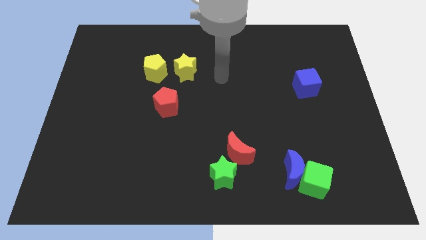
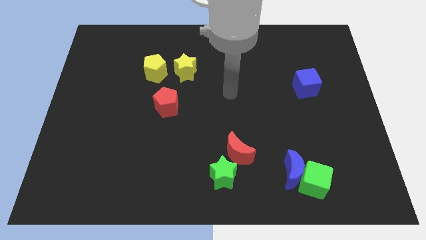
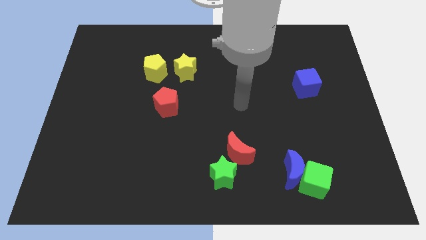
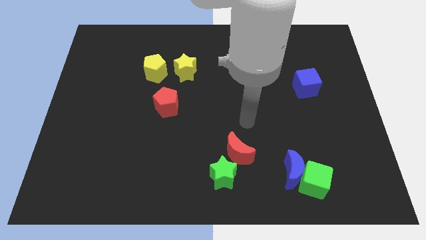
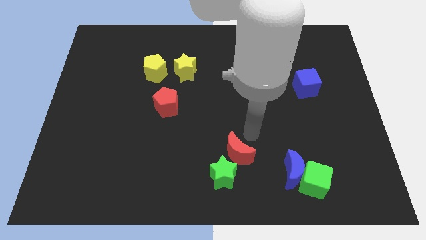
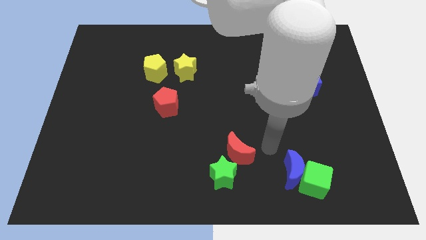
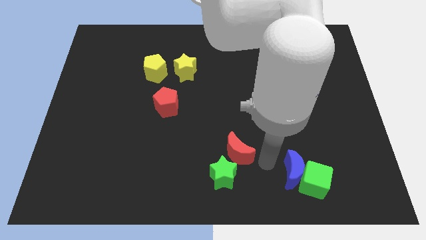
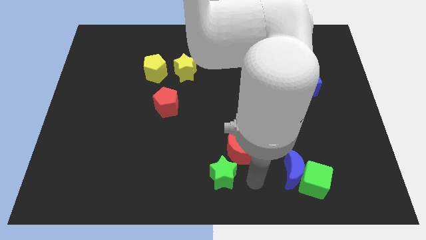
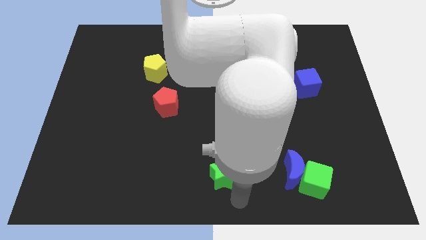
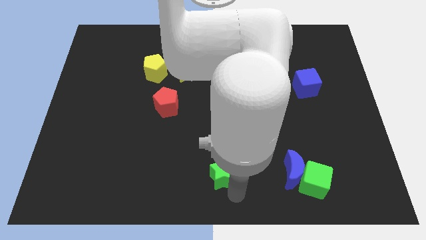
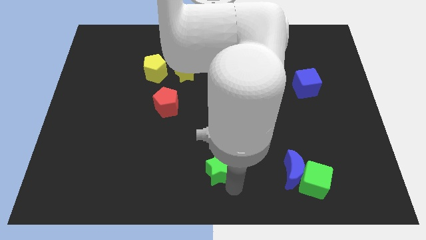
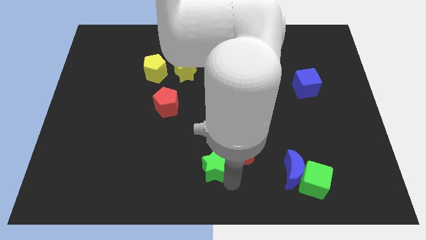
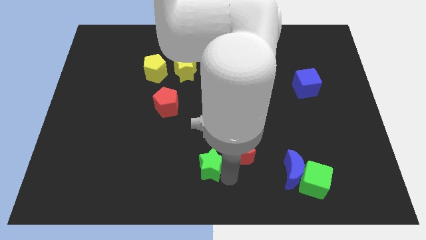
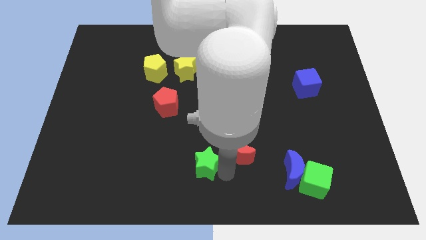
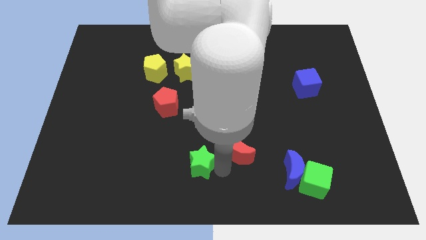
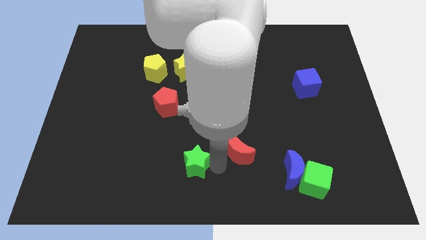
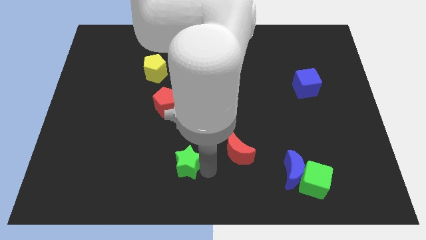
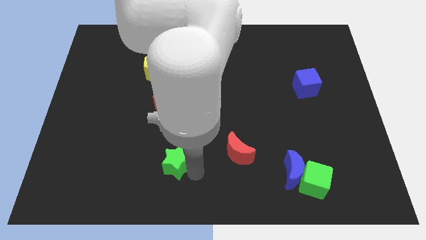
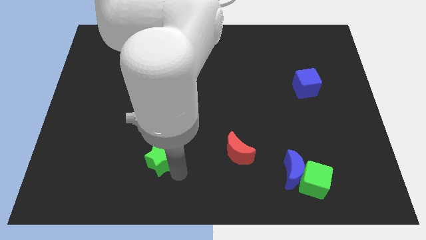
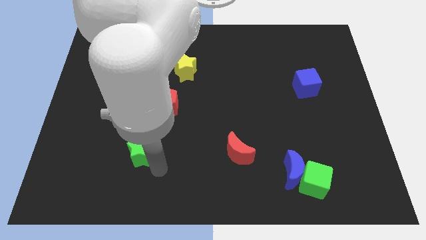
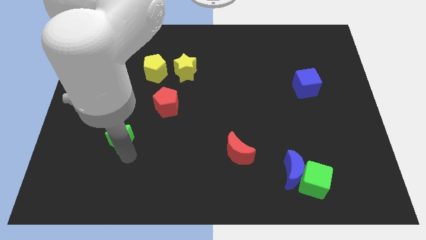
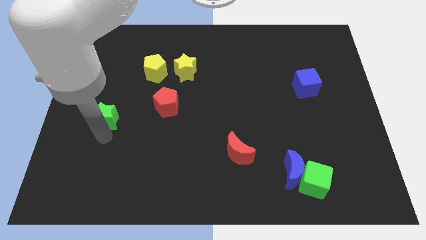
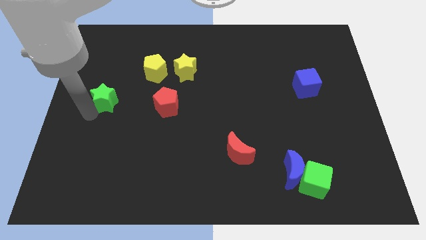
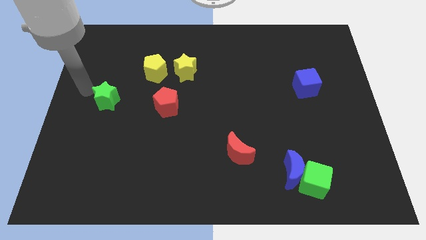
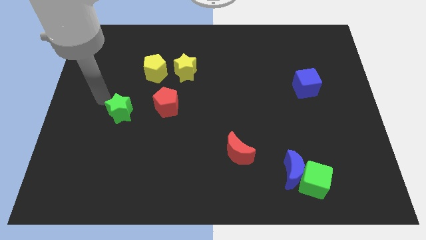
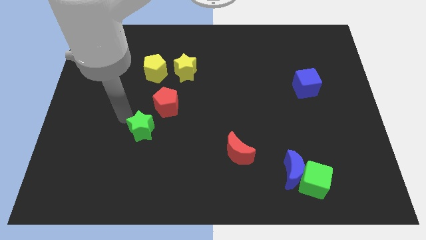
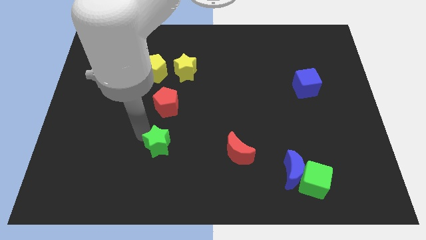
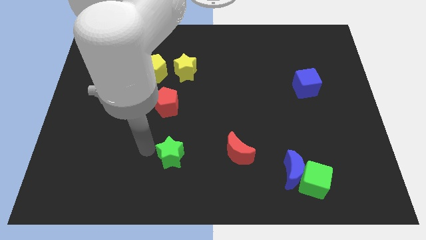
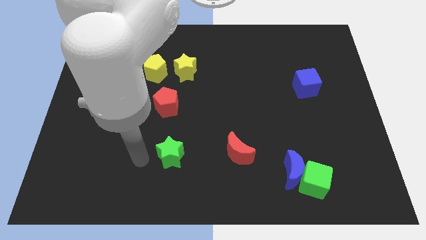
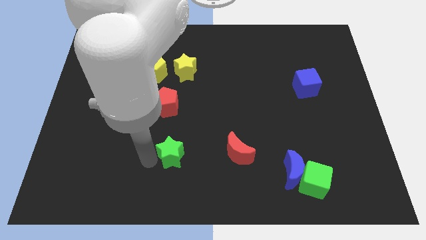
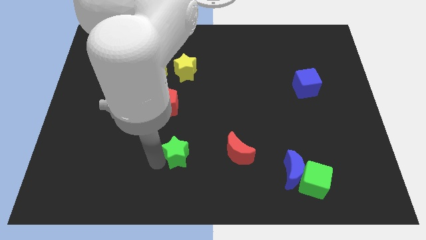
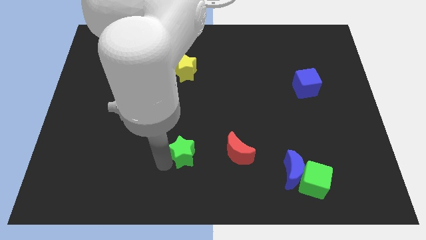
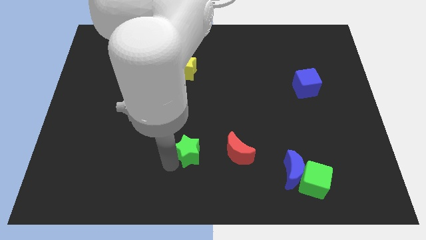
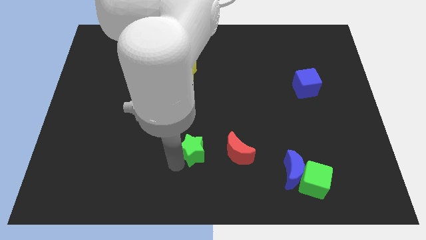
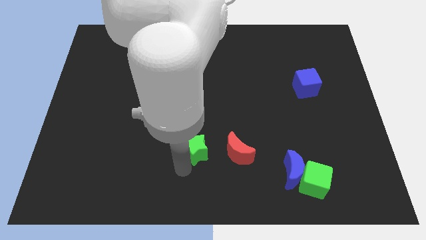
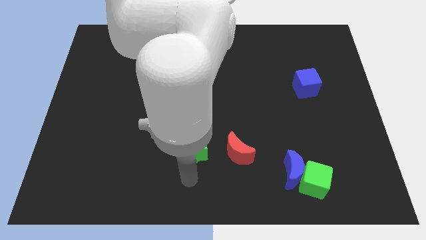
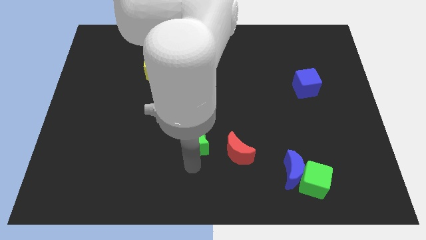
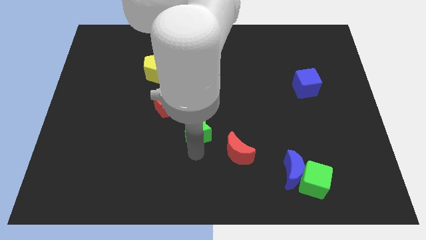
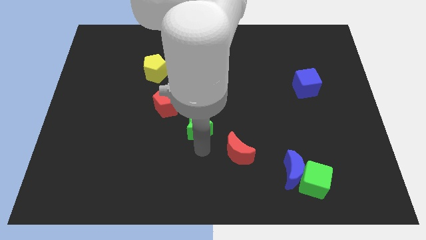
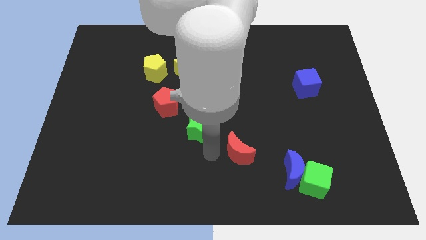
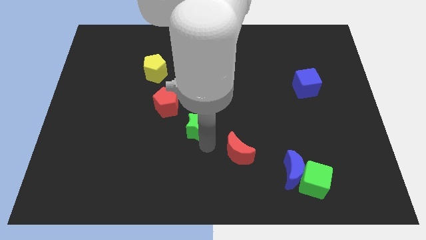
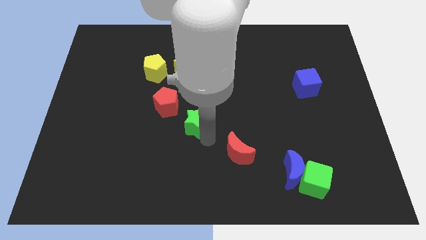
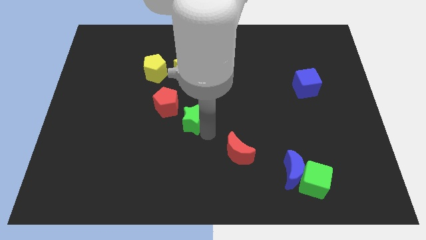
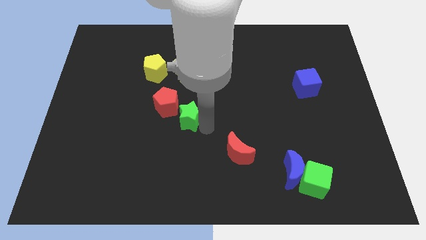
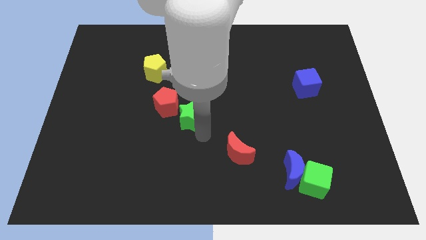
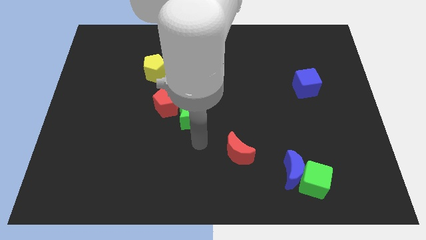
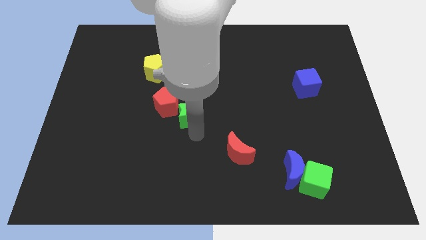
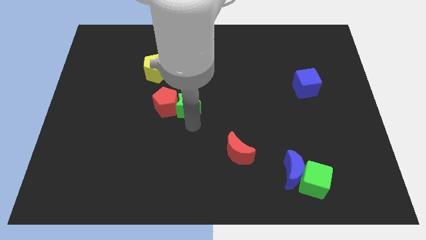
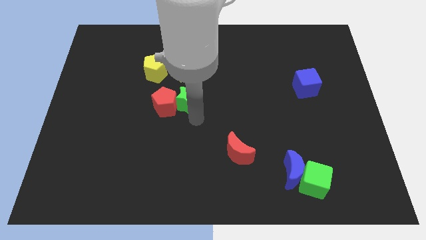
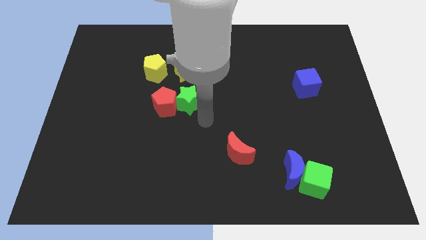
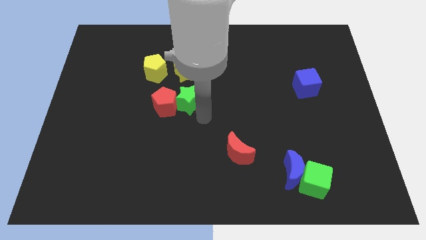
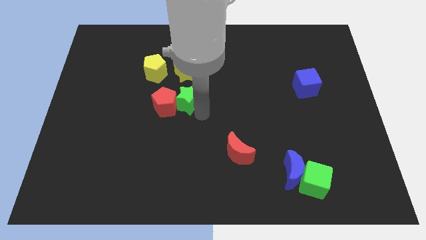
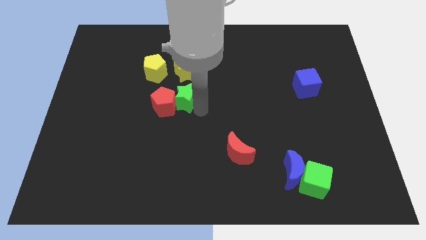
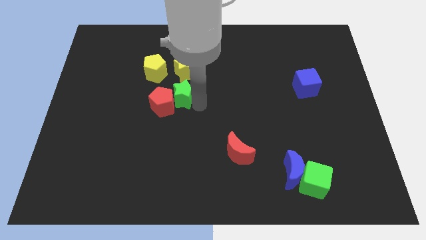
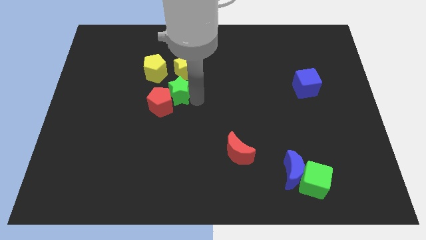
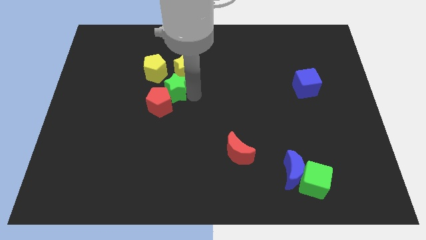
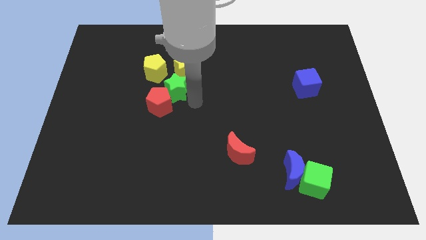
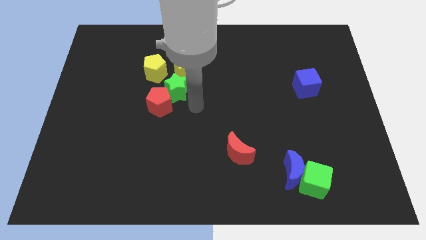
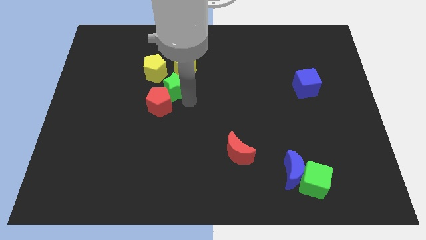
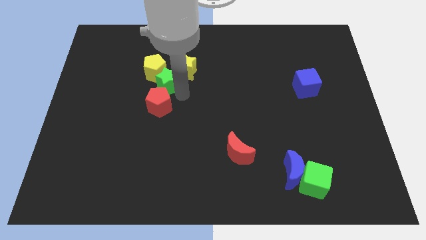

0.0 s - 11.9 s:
push the green star next to the yellow pentagon

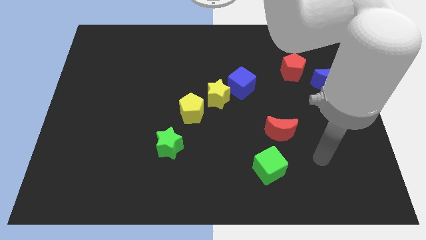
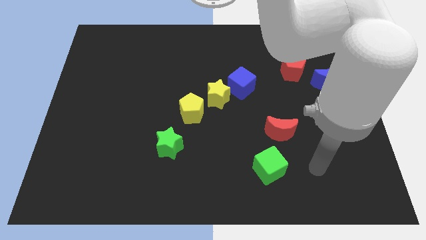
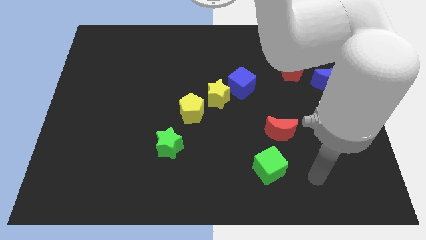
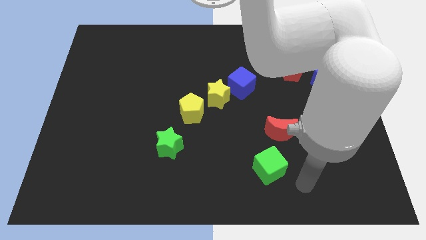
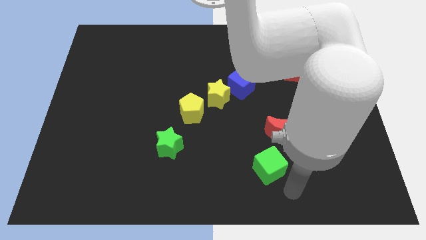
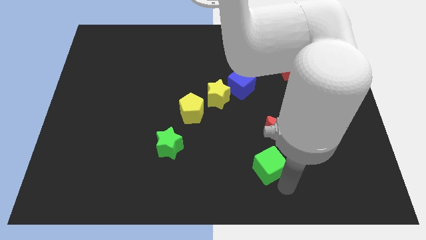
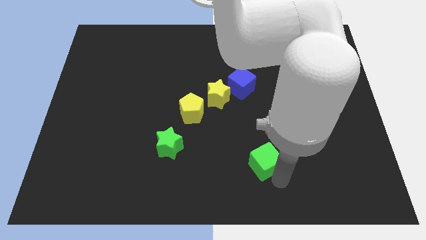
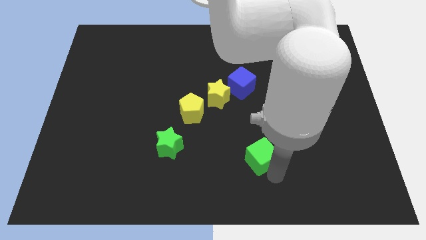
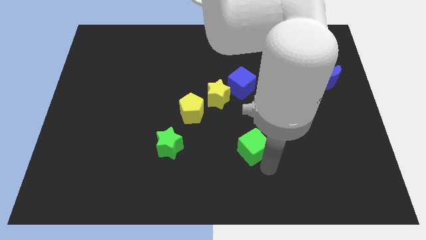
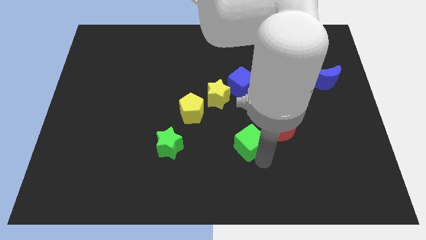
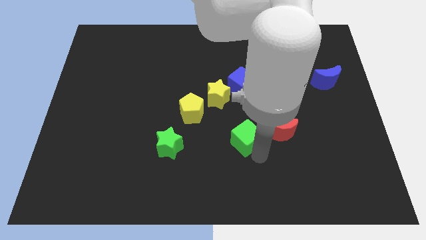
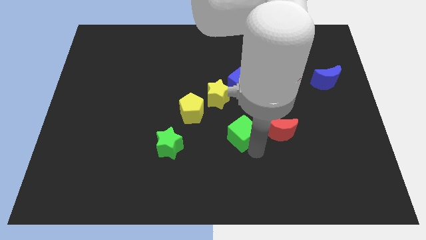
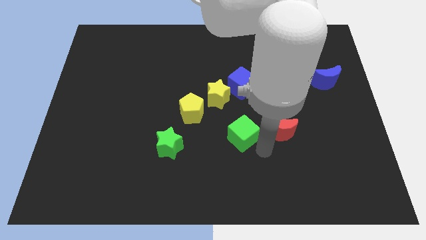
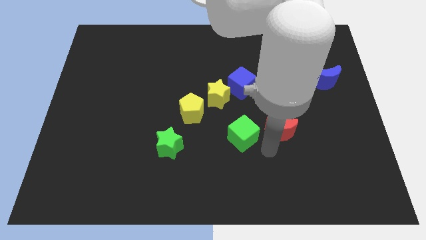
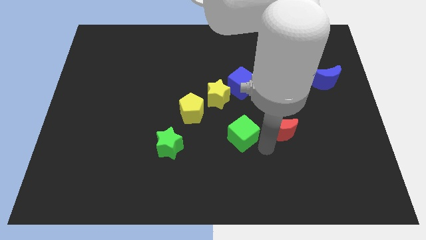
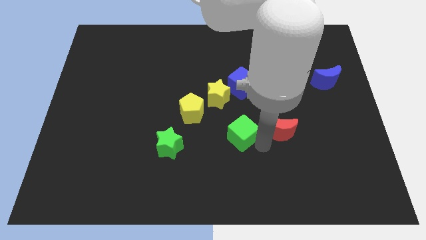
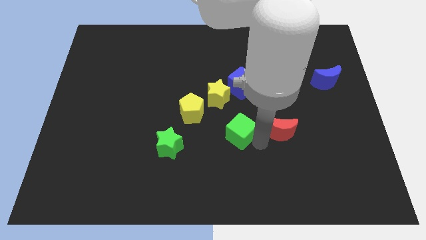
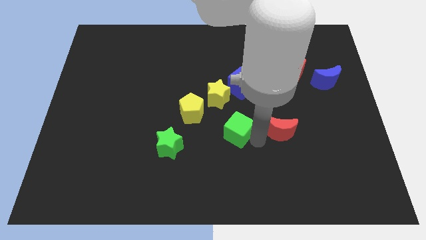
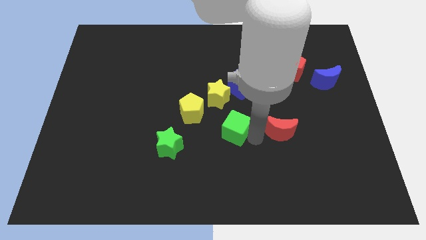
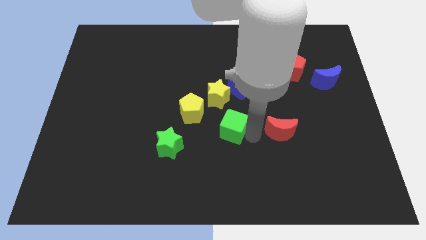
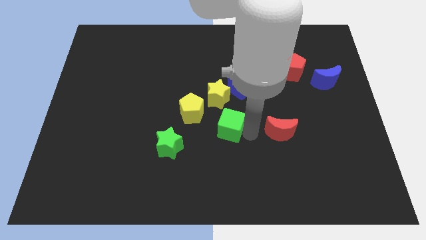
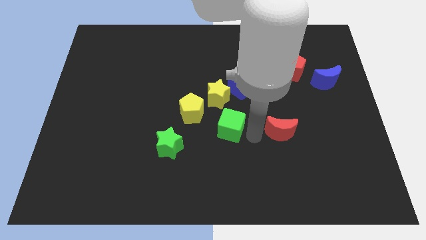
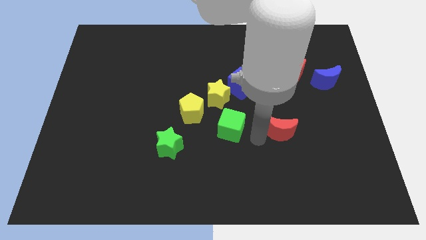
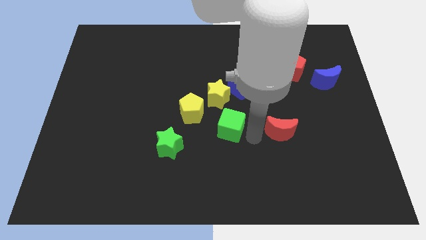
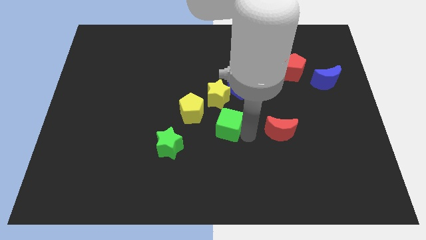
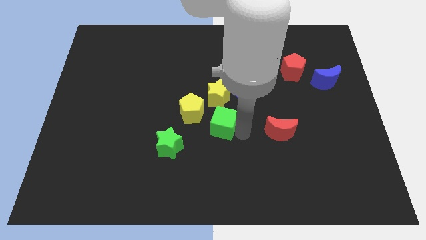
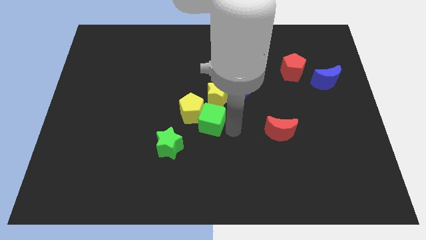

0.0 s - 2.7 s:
slide the green cube close to the yellow pentagon
